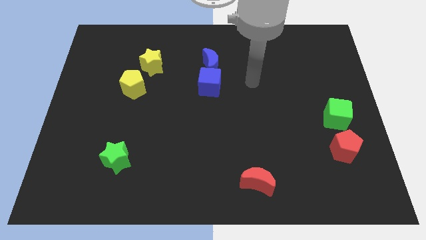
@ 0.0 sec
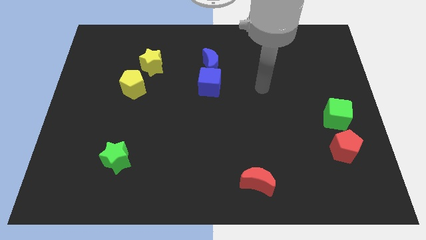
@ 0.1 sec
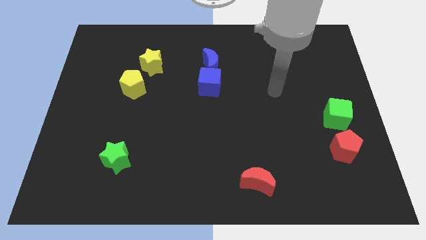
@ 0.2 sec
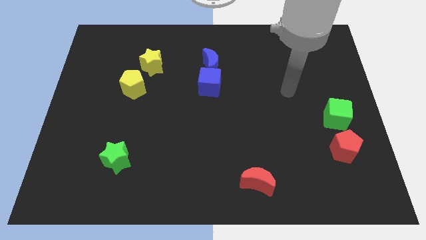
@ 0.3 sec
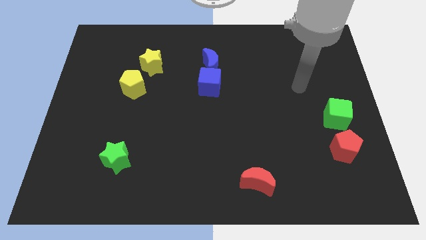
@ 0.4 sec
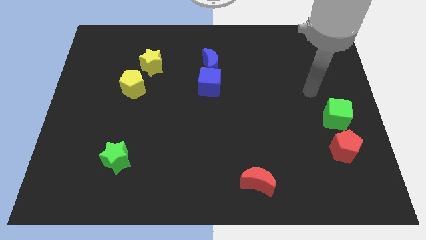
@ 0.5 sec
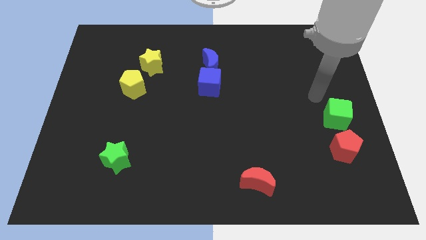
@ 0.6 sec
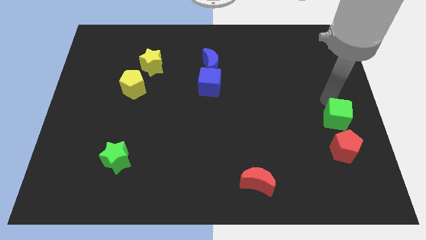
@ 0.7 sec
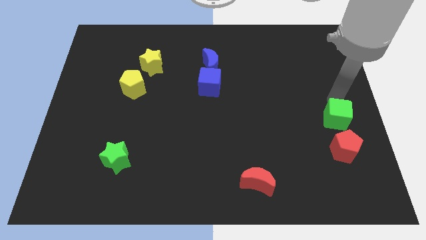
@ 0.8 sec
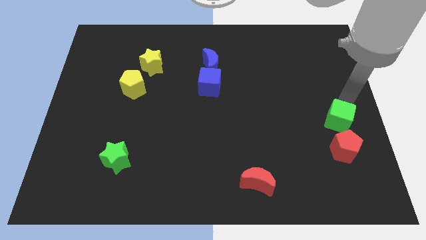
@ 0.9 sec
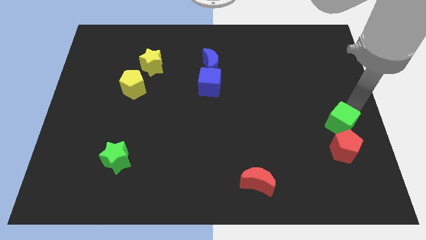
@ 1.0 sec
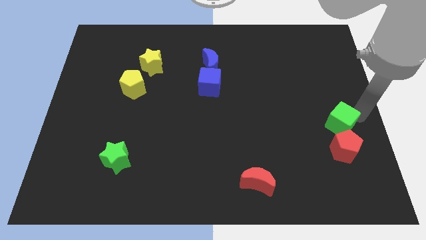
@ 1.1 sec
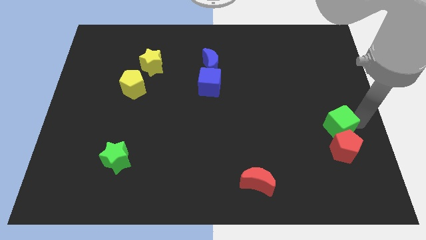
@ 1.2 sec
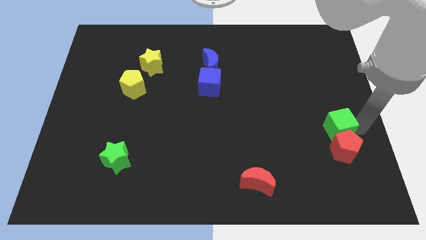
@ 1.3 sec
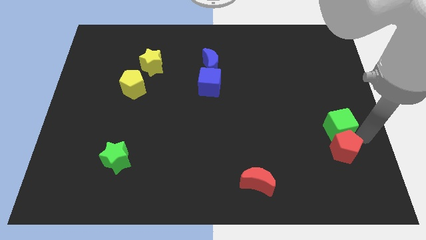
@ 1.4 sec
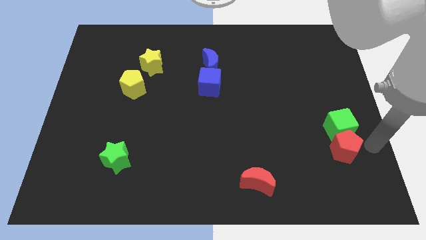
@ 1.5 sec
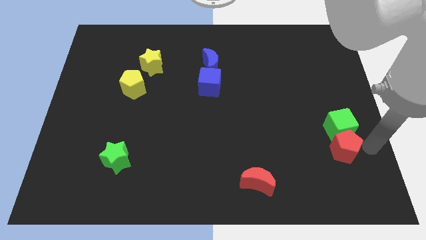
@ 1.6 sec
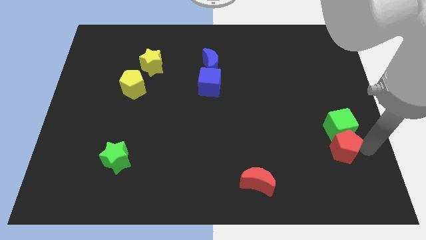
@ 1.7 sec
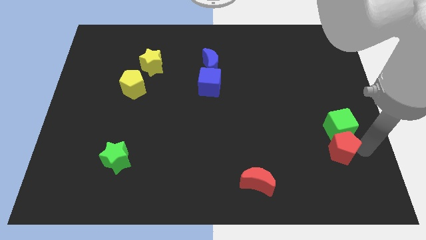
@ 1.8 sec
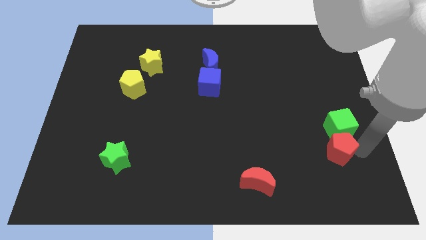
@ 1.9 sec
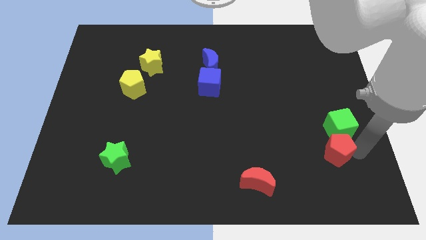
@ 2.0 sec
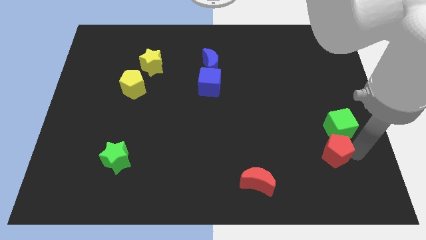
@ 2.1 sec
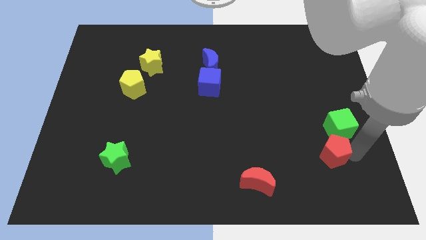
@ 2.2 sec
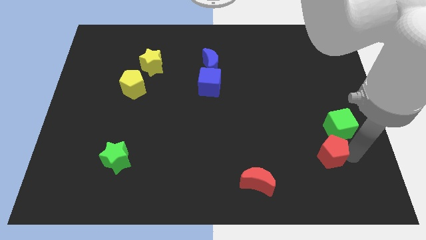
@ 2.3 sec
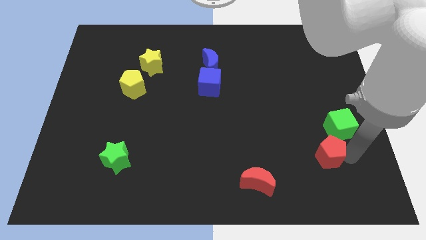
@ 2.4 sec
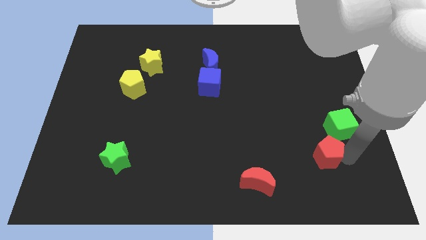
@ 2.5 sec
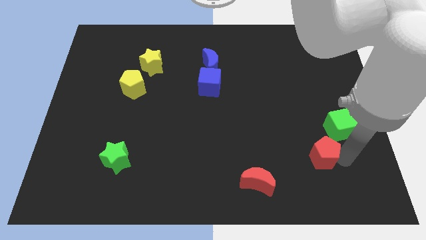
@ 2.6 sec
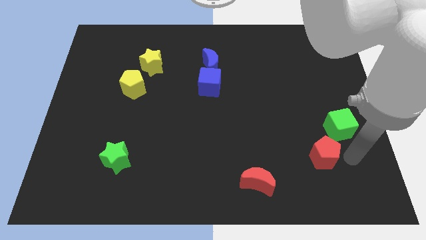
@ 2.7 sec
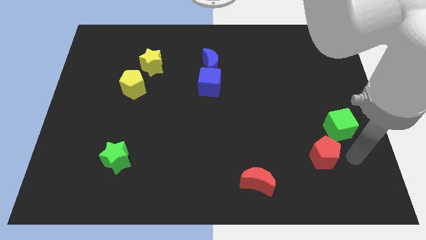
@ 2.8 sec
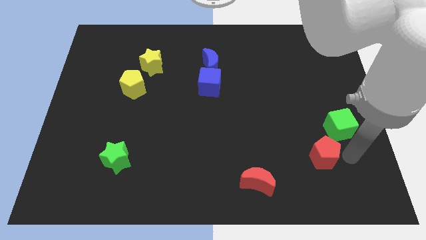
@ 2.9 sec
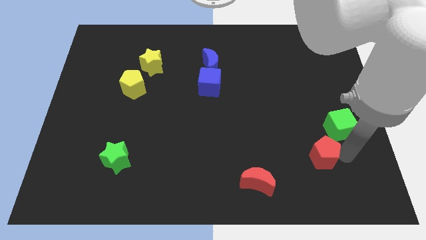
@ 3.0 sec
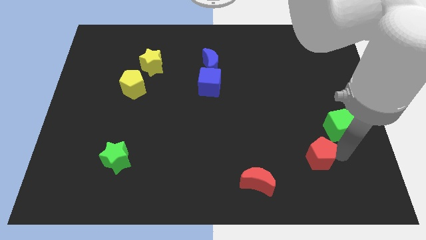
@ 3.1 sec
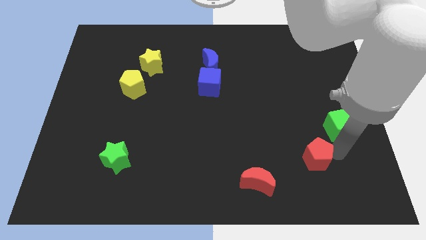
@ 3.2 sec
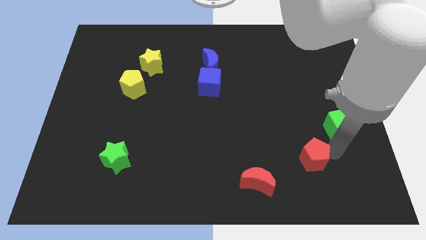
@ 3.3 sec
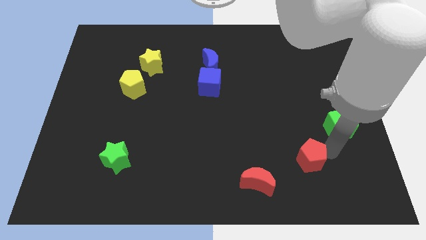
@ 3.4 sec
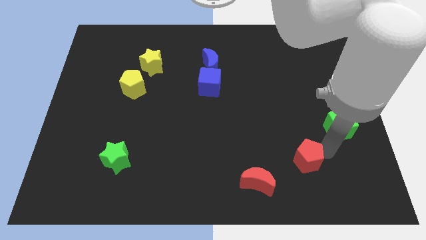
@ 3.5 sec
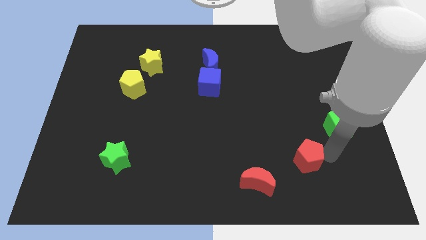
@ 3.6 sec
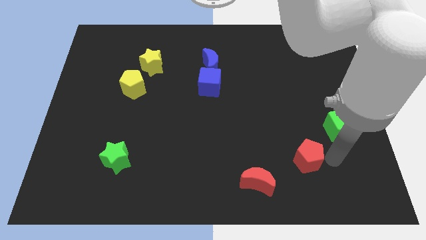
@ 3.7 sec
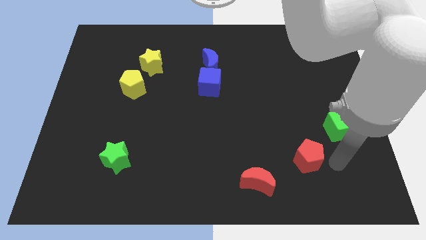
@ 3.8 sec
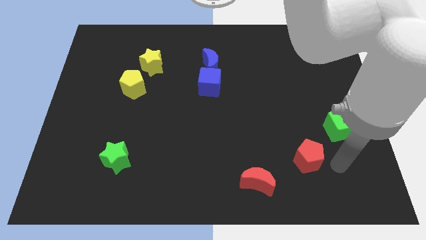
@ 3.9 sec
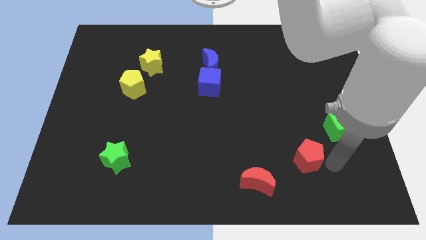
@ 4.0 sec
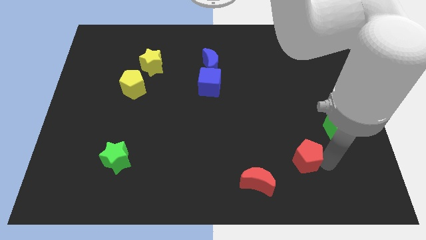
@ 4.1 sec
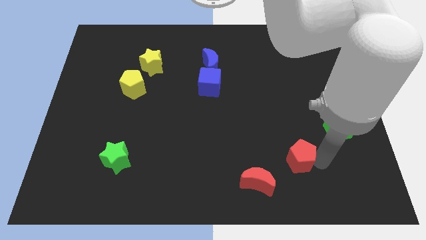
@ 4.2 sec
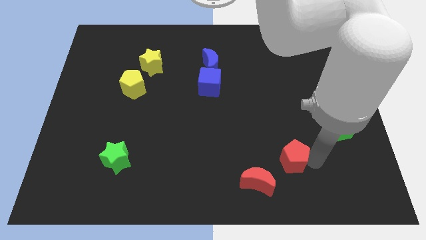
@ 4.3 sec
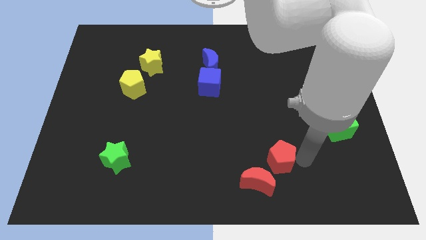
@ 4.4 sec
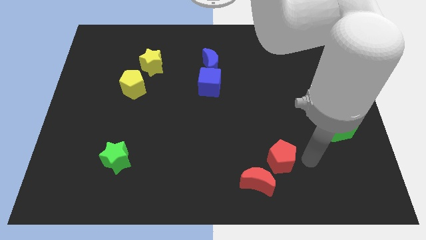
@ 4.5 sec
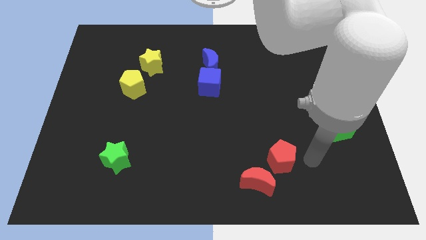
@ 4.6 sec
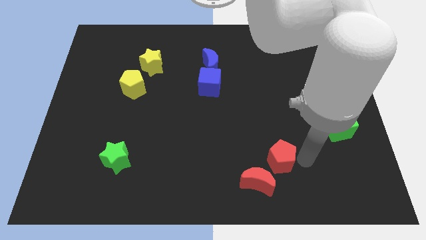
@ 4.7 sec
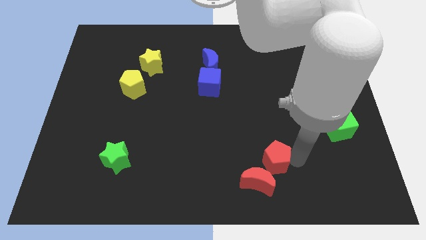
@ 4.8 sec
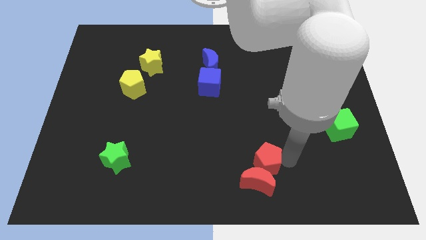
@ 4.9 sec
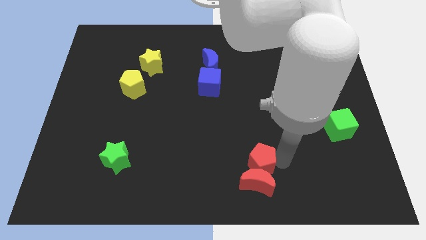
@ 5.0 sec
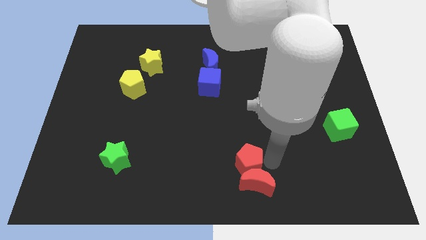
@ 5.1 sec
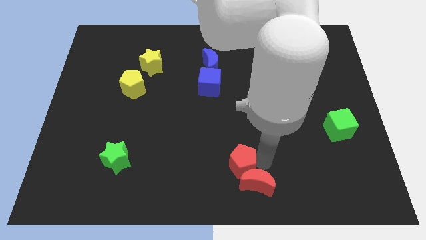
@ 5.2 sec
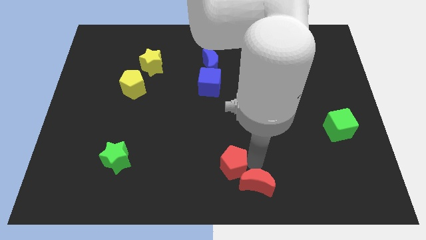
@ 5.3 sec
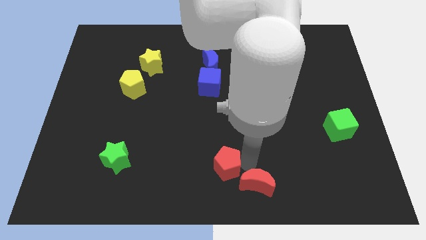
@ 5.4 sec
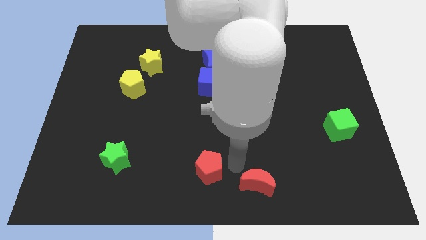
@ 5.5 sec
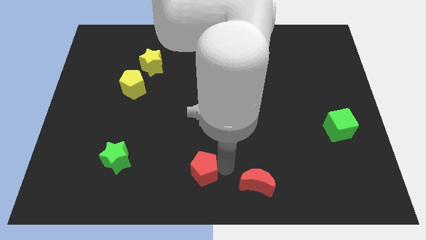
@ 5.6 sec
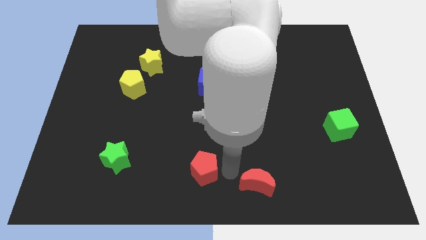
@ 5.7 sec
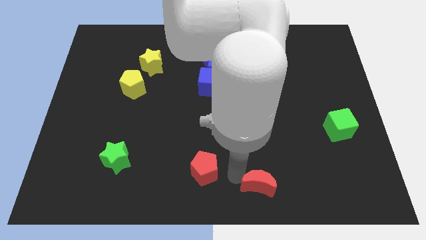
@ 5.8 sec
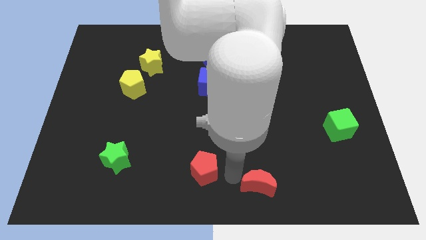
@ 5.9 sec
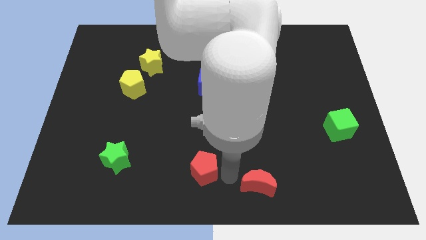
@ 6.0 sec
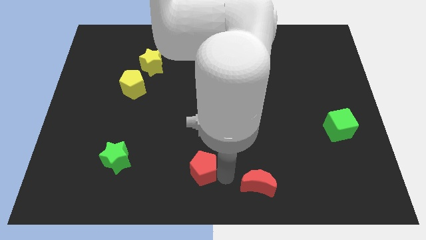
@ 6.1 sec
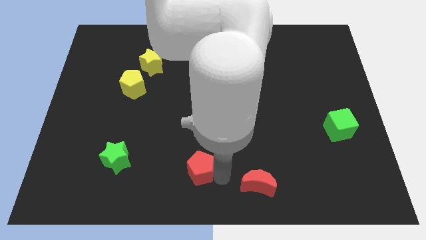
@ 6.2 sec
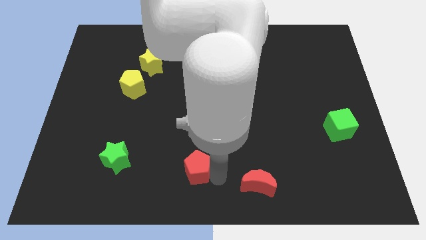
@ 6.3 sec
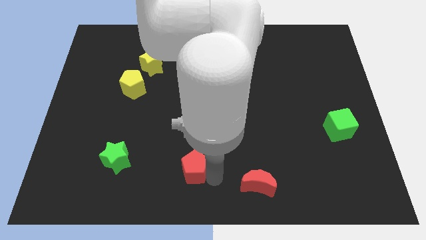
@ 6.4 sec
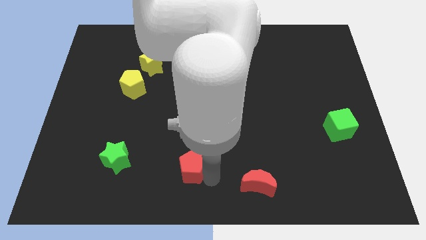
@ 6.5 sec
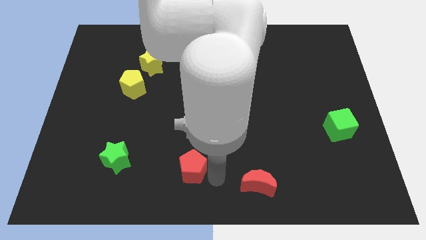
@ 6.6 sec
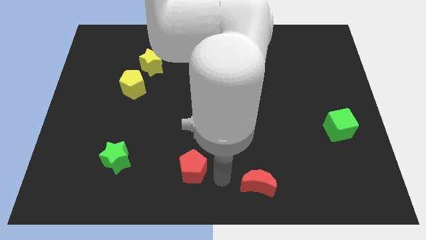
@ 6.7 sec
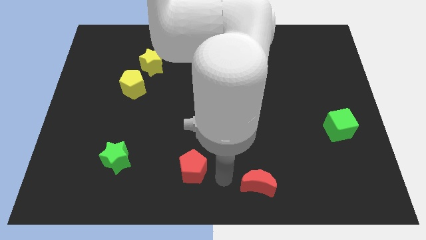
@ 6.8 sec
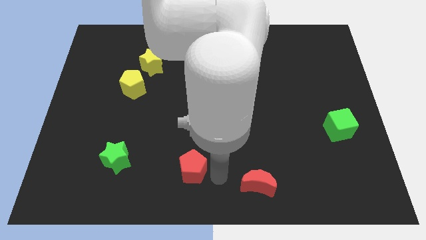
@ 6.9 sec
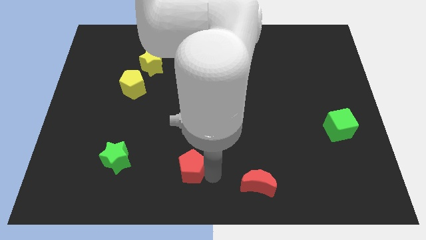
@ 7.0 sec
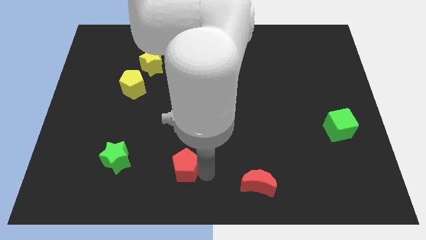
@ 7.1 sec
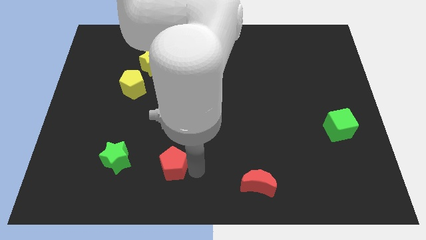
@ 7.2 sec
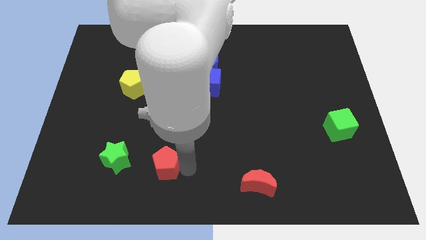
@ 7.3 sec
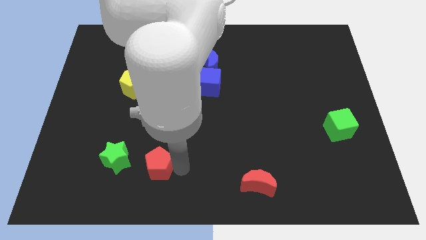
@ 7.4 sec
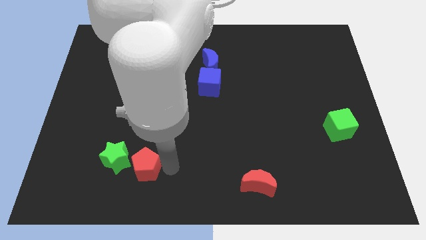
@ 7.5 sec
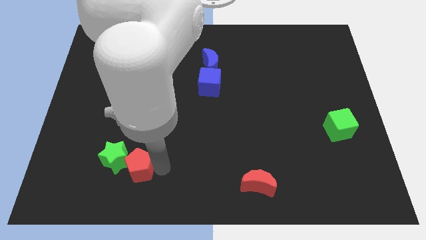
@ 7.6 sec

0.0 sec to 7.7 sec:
slide the red pentagon to the green star
